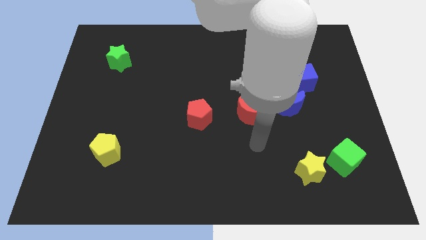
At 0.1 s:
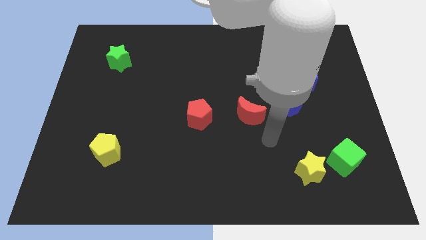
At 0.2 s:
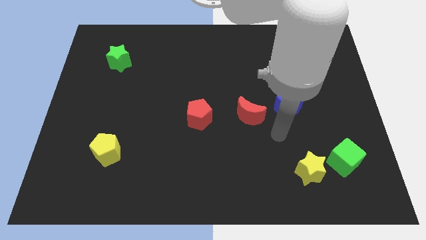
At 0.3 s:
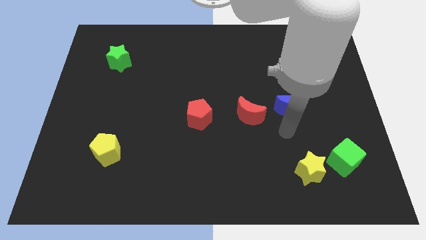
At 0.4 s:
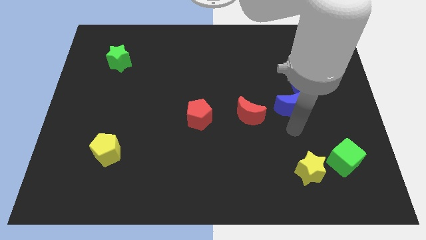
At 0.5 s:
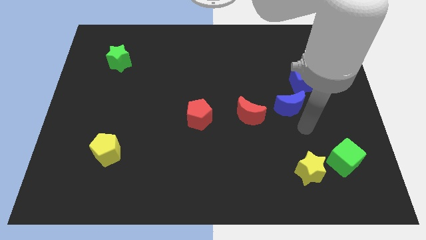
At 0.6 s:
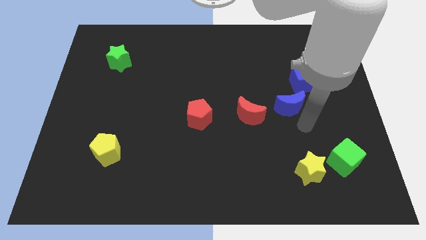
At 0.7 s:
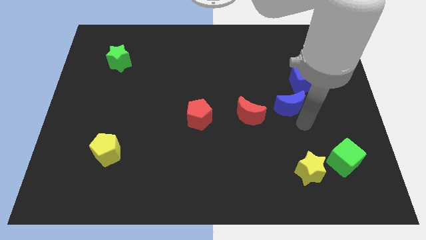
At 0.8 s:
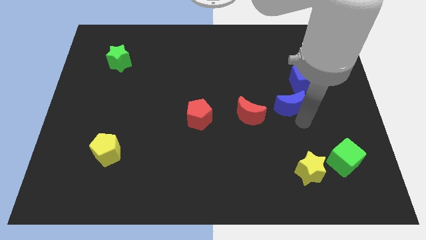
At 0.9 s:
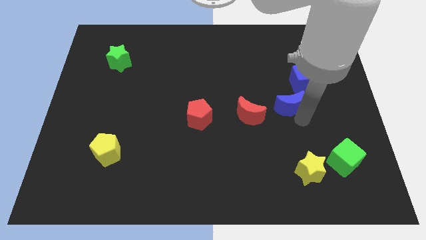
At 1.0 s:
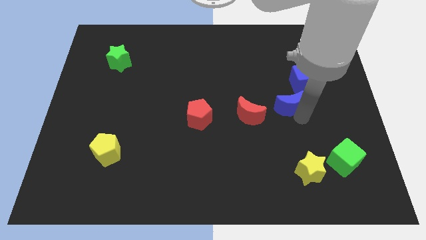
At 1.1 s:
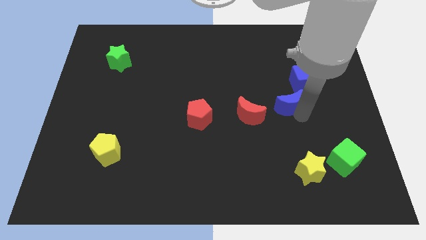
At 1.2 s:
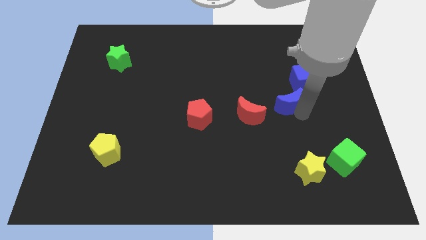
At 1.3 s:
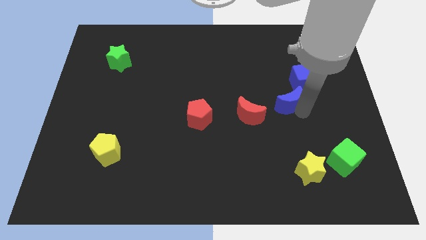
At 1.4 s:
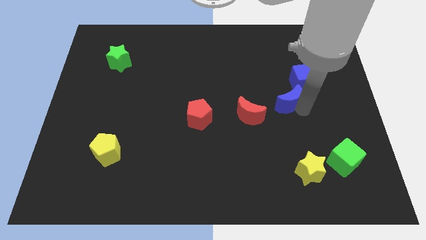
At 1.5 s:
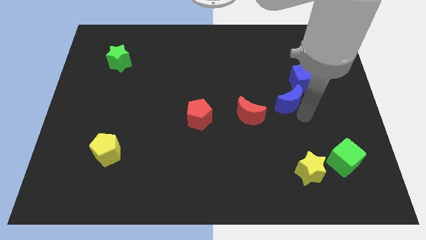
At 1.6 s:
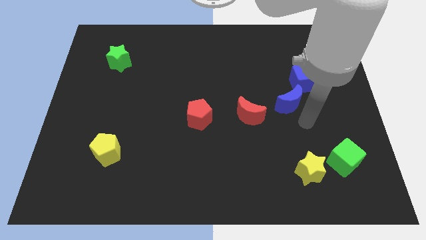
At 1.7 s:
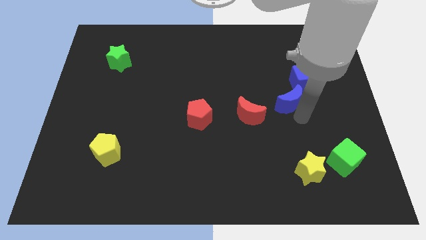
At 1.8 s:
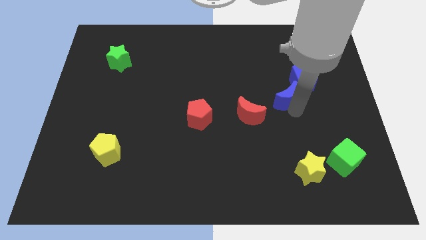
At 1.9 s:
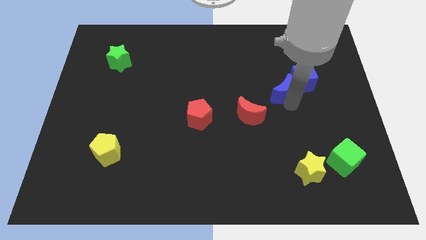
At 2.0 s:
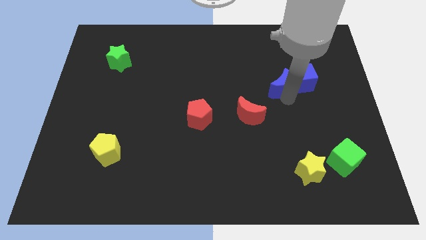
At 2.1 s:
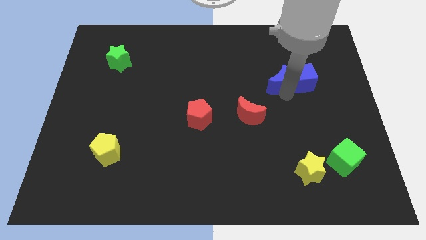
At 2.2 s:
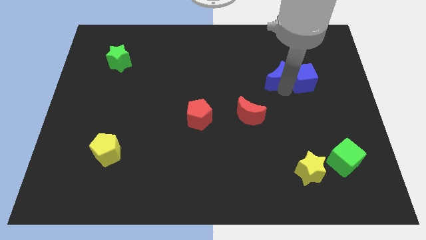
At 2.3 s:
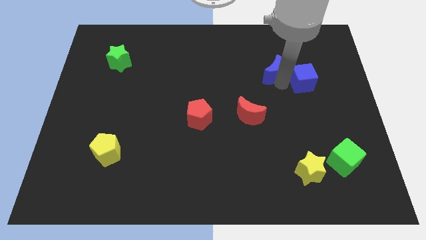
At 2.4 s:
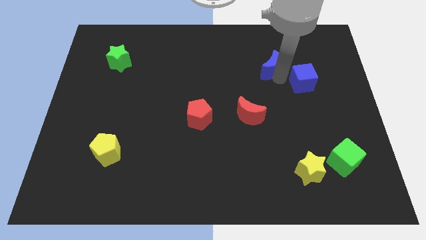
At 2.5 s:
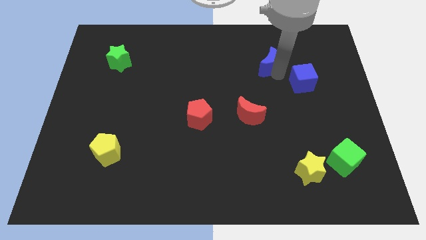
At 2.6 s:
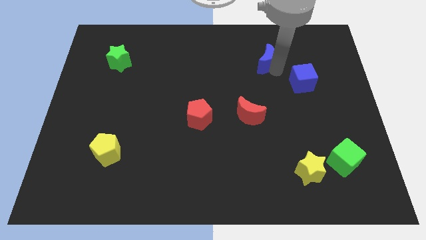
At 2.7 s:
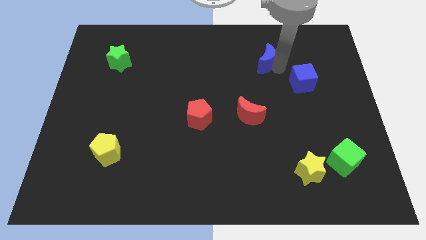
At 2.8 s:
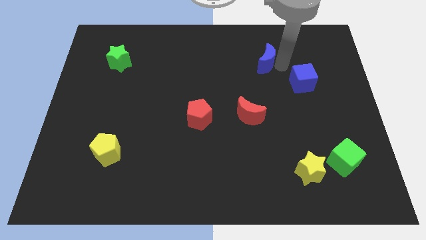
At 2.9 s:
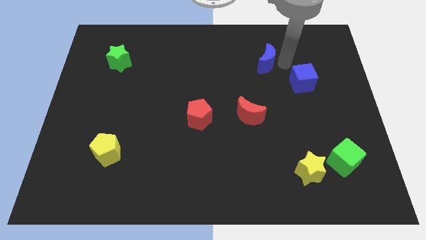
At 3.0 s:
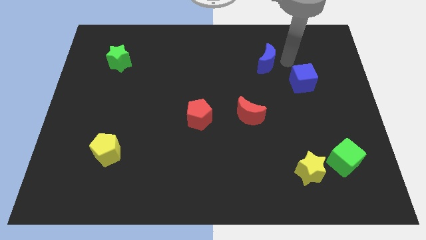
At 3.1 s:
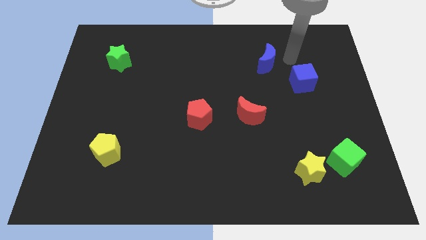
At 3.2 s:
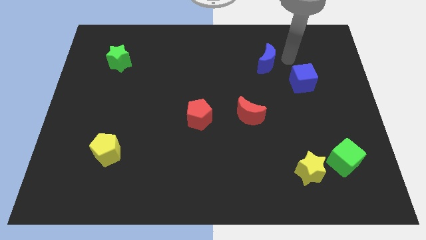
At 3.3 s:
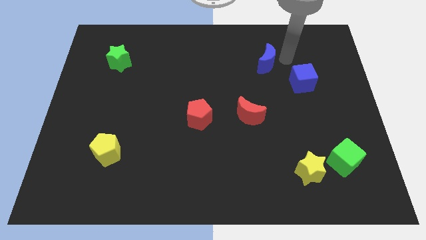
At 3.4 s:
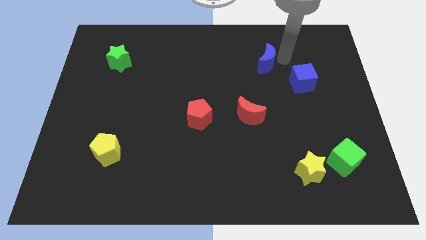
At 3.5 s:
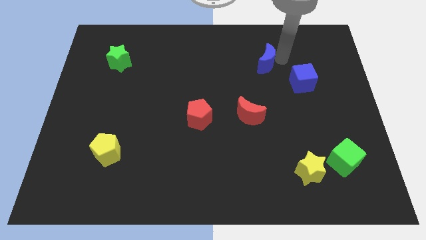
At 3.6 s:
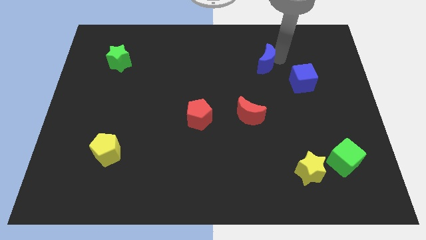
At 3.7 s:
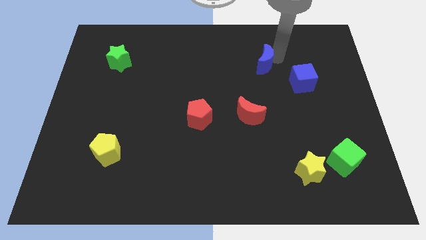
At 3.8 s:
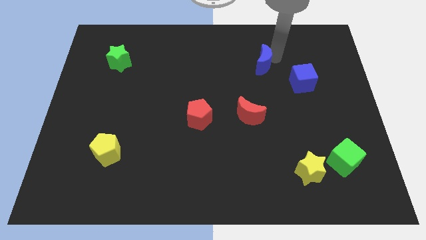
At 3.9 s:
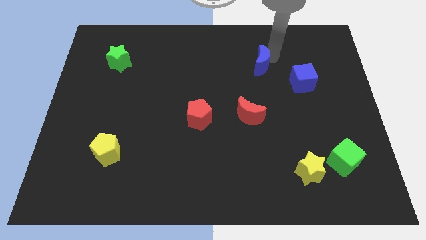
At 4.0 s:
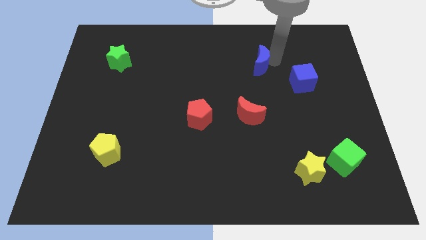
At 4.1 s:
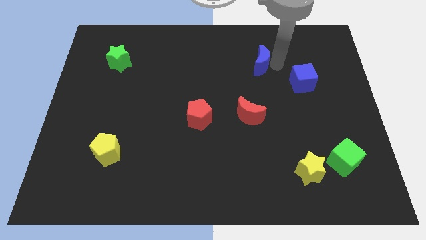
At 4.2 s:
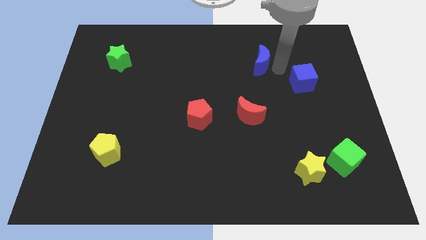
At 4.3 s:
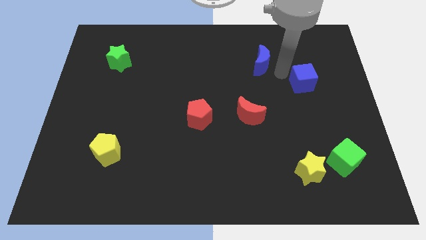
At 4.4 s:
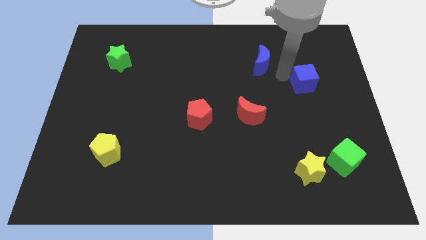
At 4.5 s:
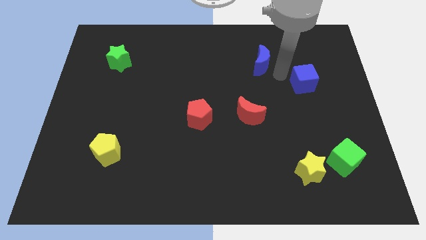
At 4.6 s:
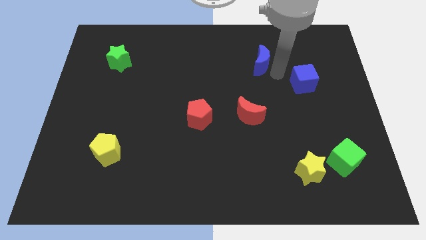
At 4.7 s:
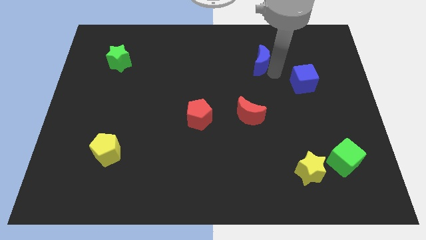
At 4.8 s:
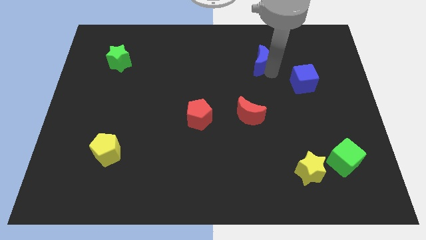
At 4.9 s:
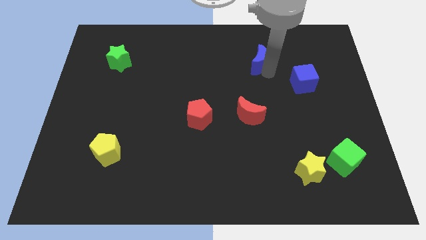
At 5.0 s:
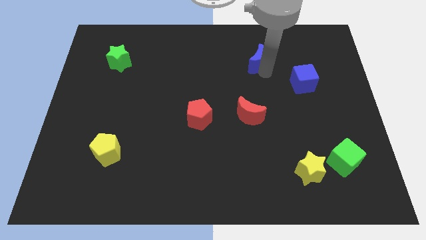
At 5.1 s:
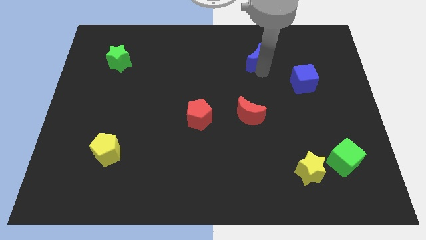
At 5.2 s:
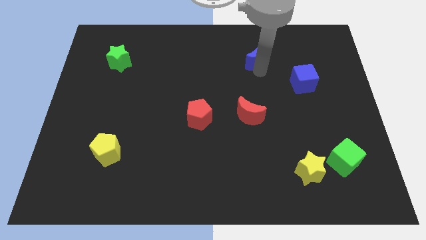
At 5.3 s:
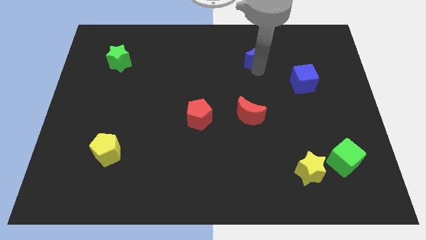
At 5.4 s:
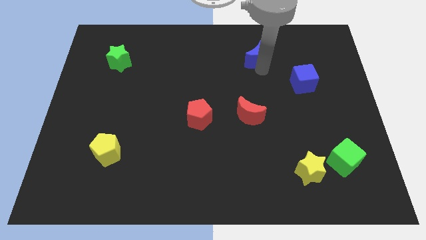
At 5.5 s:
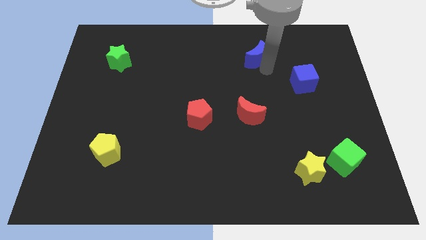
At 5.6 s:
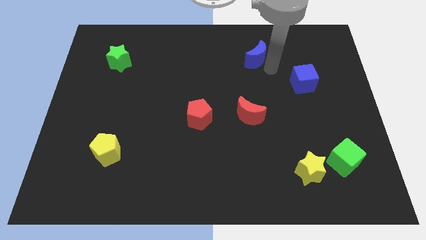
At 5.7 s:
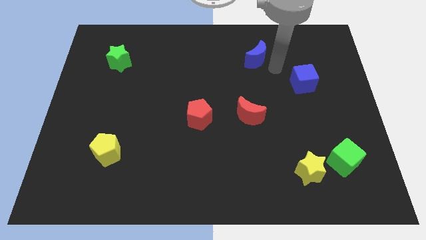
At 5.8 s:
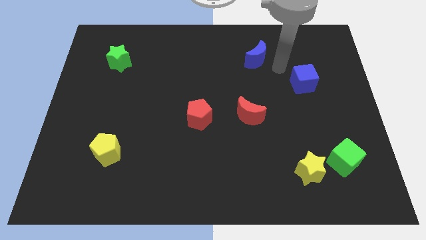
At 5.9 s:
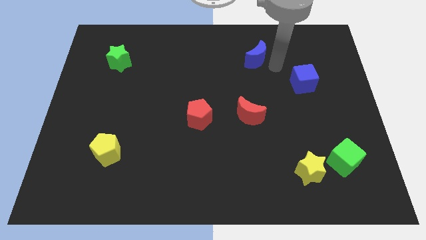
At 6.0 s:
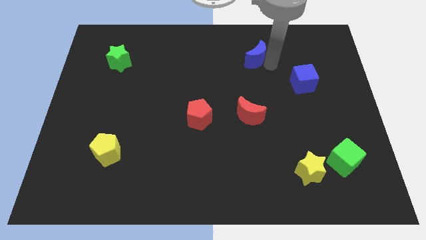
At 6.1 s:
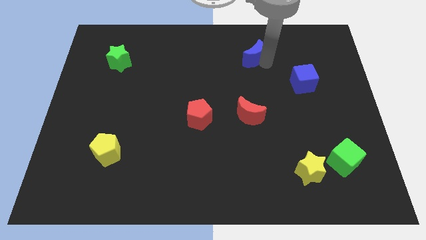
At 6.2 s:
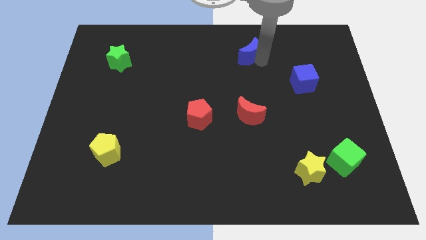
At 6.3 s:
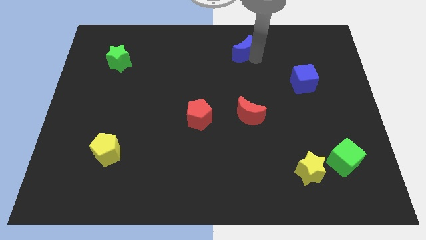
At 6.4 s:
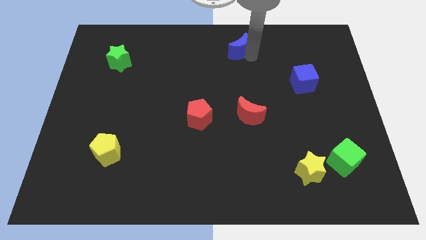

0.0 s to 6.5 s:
slide the blue moon to the top side
